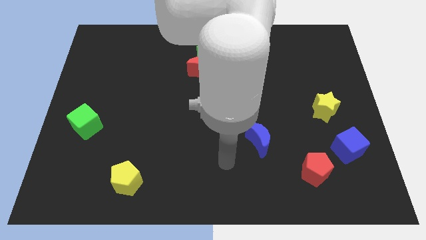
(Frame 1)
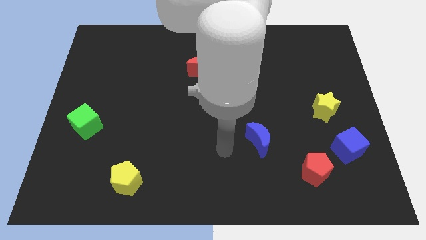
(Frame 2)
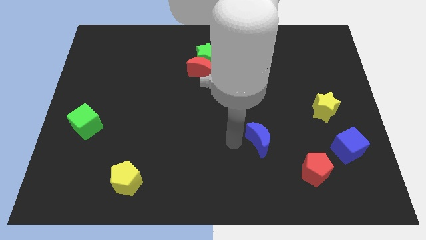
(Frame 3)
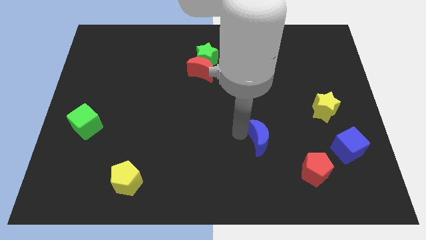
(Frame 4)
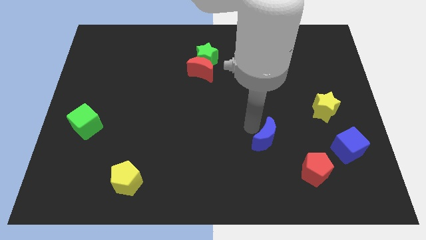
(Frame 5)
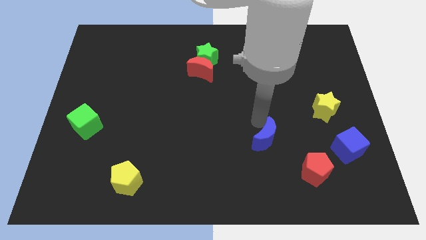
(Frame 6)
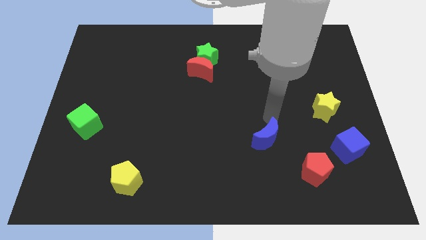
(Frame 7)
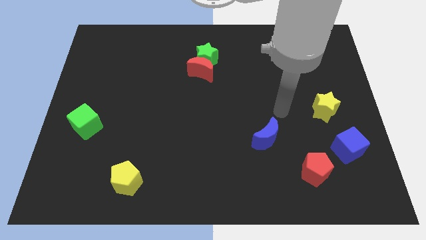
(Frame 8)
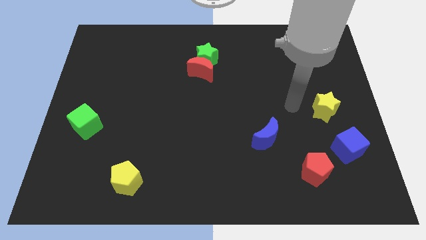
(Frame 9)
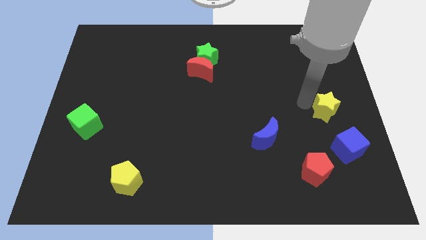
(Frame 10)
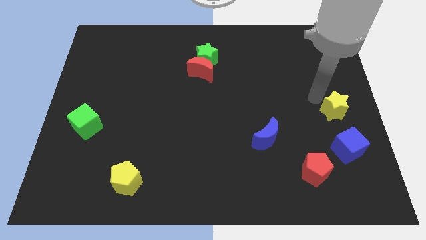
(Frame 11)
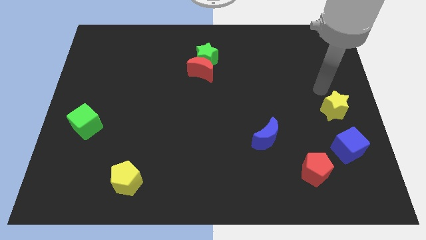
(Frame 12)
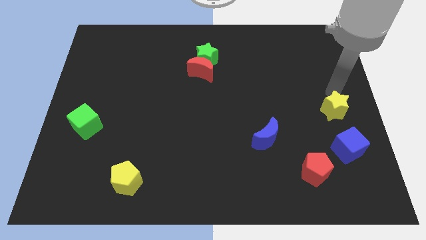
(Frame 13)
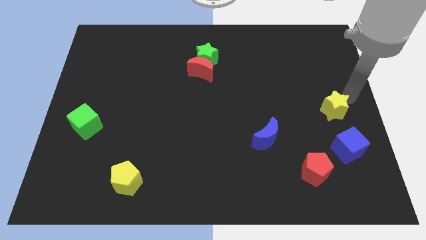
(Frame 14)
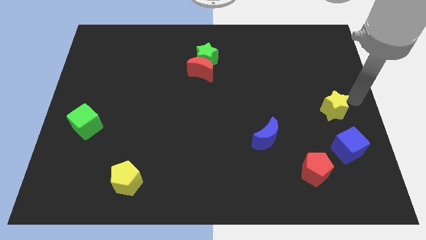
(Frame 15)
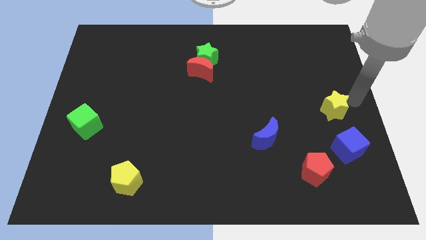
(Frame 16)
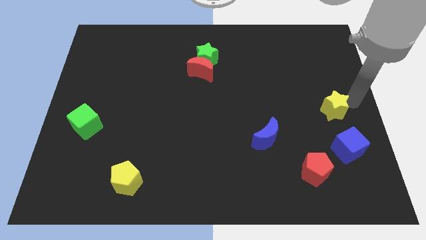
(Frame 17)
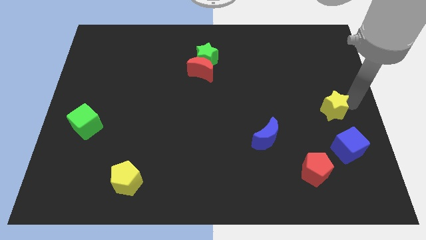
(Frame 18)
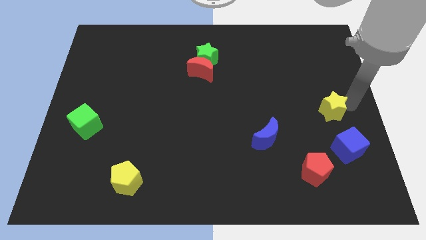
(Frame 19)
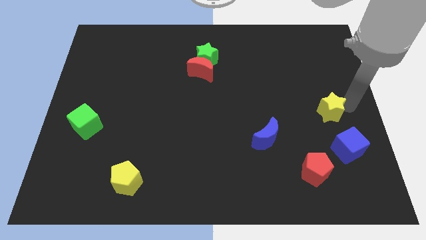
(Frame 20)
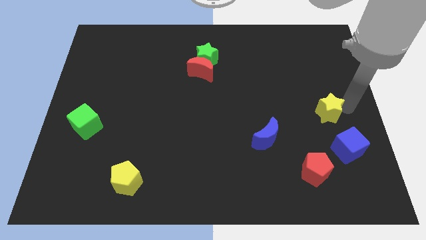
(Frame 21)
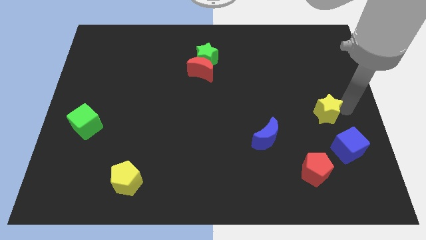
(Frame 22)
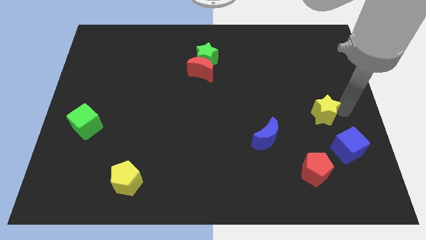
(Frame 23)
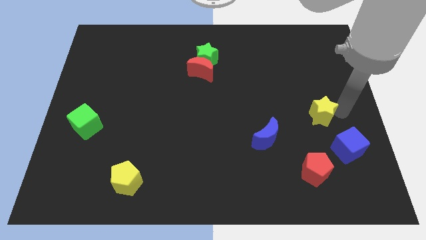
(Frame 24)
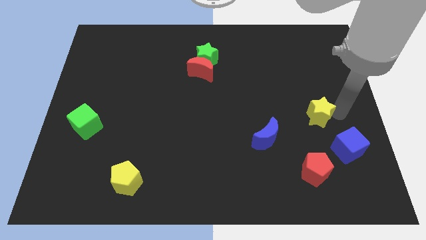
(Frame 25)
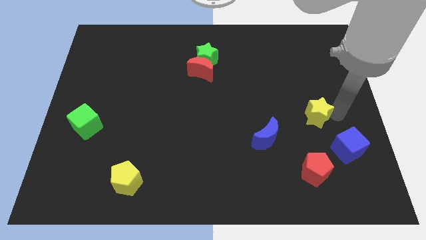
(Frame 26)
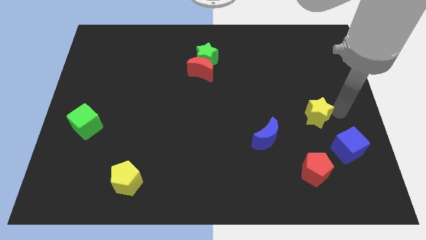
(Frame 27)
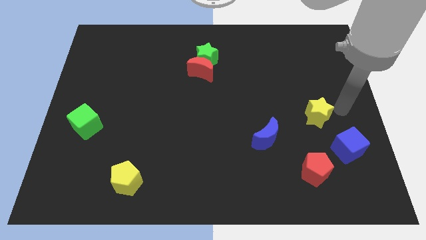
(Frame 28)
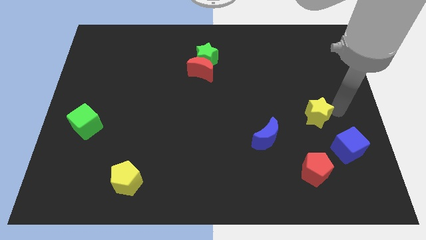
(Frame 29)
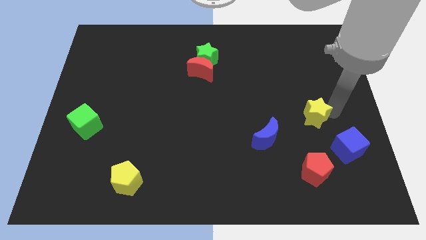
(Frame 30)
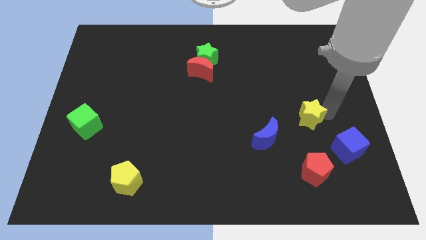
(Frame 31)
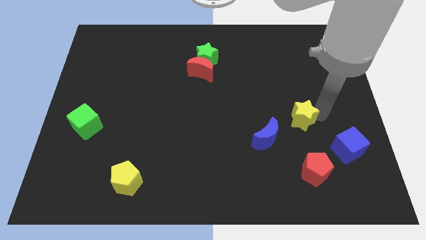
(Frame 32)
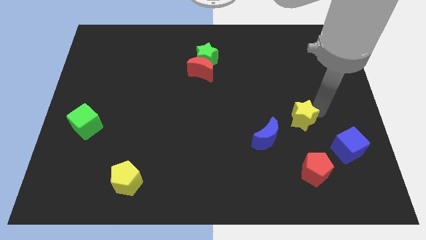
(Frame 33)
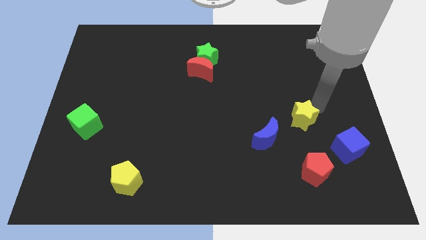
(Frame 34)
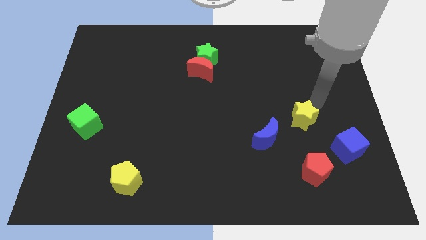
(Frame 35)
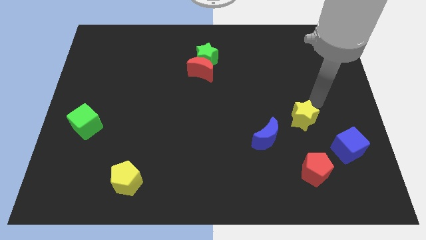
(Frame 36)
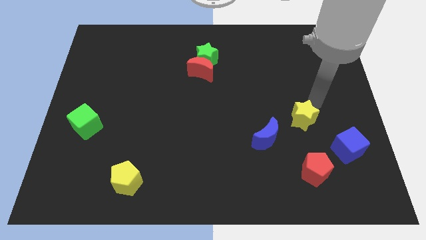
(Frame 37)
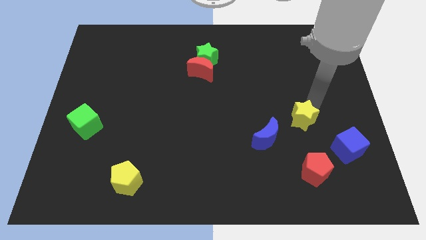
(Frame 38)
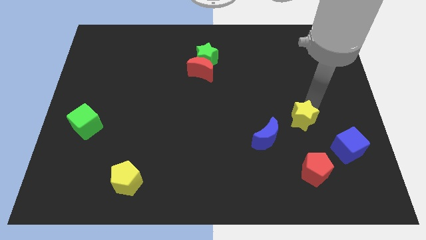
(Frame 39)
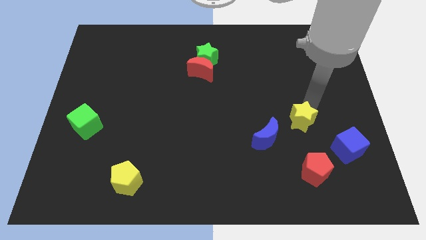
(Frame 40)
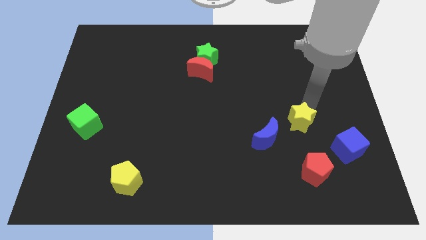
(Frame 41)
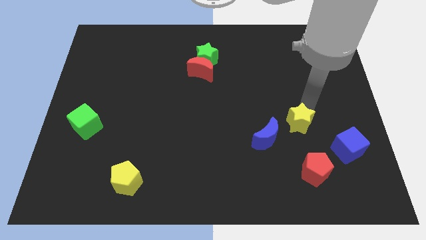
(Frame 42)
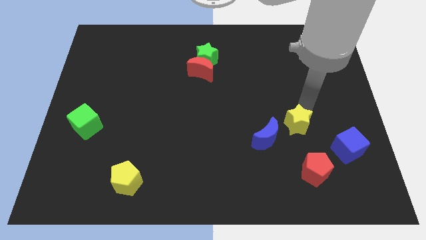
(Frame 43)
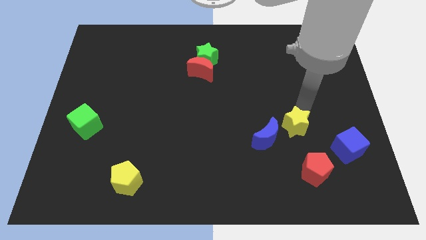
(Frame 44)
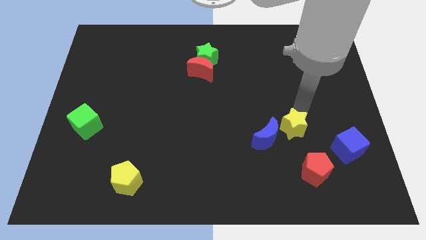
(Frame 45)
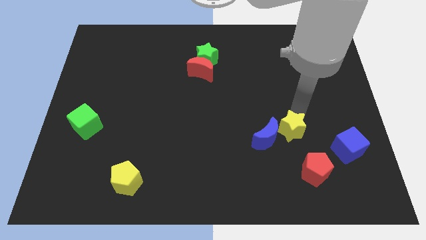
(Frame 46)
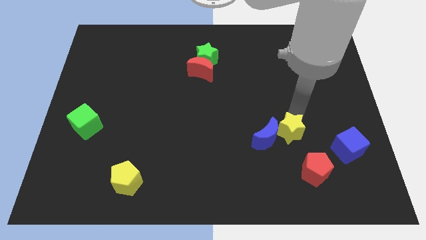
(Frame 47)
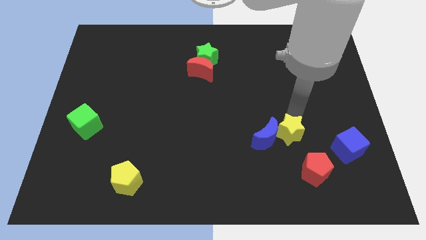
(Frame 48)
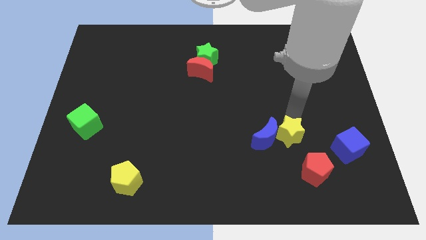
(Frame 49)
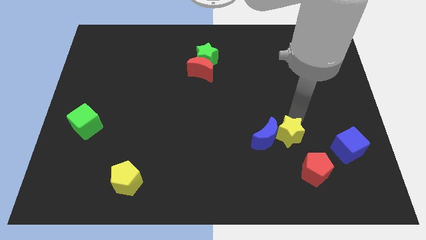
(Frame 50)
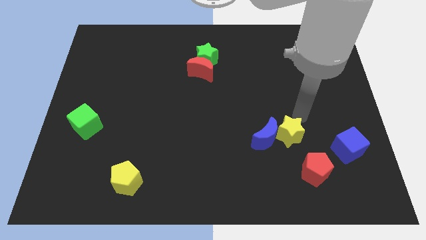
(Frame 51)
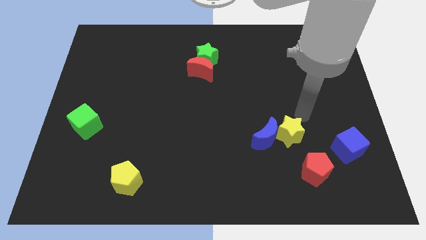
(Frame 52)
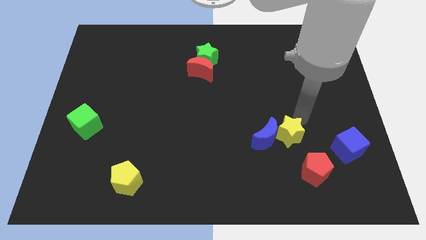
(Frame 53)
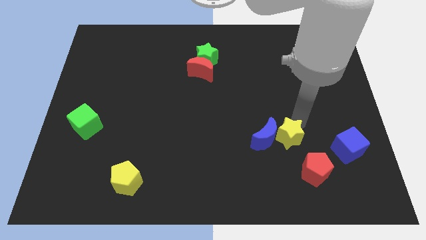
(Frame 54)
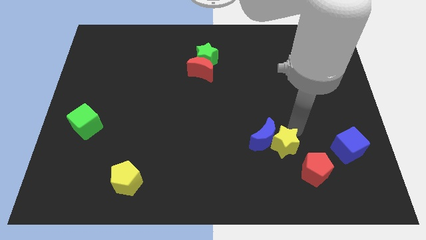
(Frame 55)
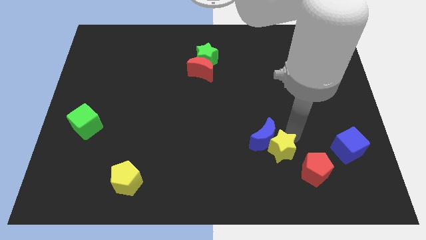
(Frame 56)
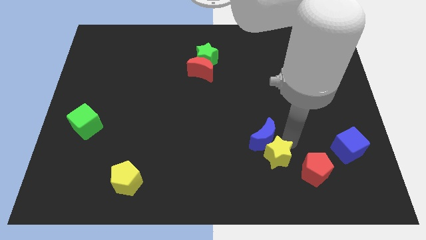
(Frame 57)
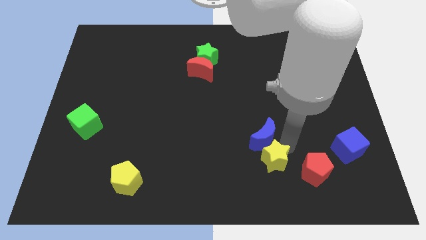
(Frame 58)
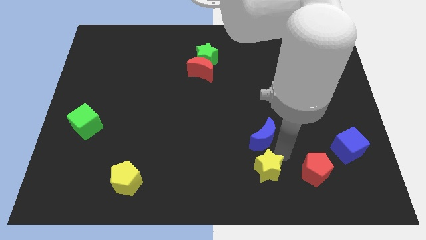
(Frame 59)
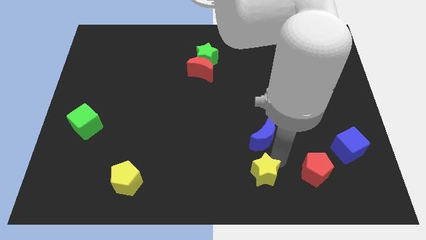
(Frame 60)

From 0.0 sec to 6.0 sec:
move the yellow star to the bottom
